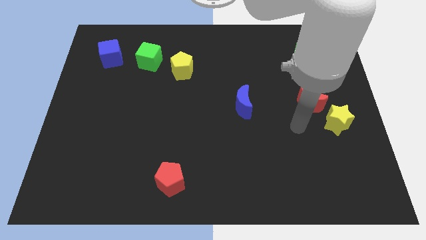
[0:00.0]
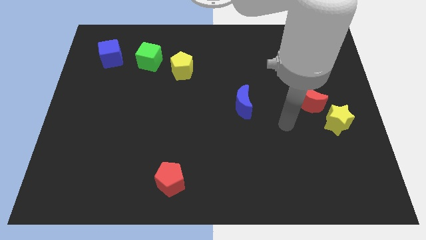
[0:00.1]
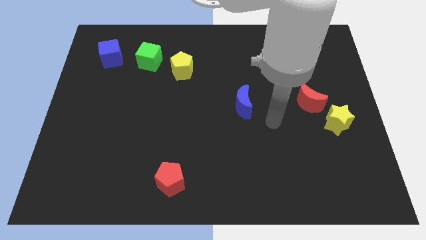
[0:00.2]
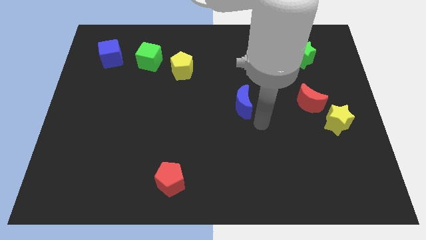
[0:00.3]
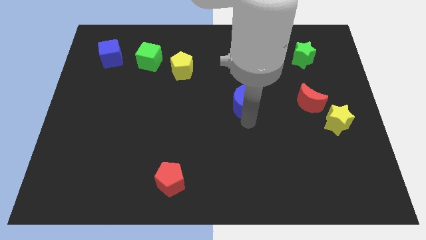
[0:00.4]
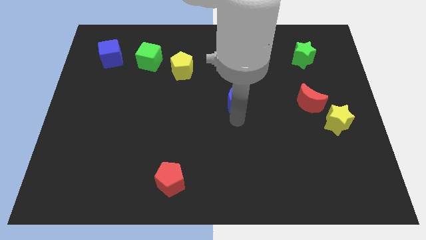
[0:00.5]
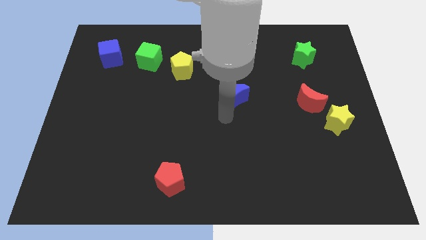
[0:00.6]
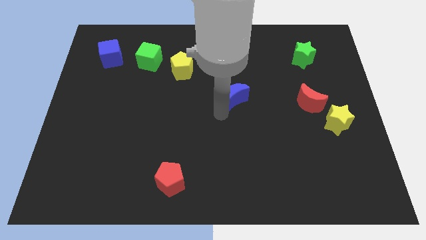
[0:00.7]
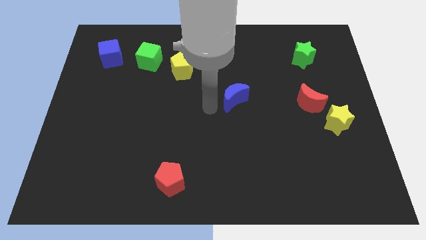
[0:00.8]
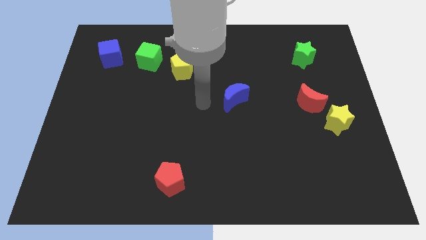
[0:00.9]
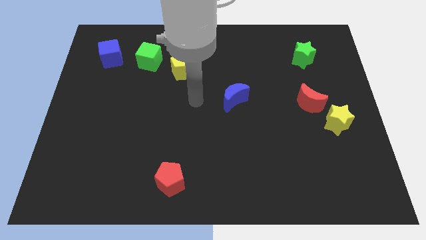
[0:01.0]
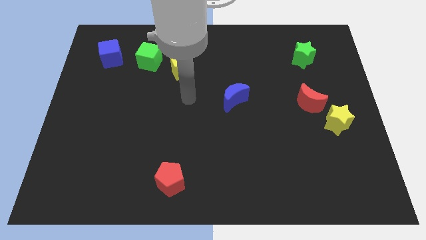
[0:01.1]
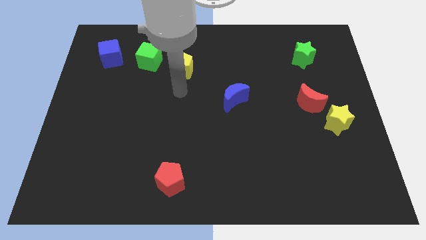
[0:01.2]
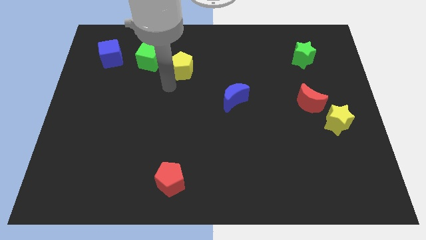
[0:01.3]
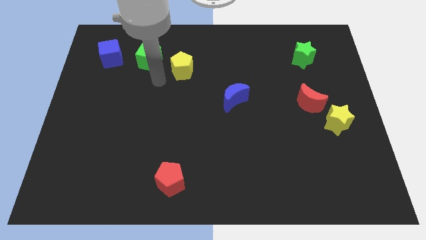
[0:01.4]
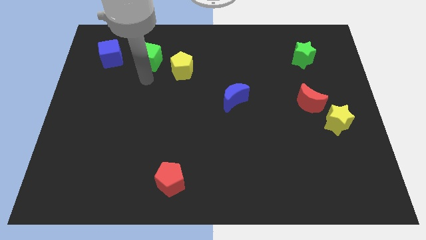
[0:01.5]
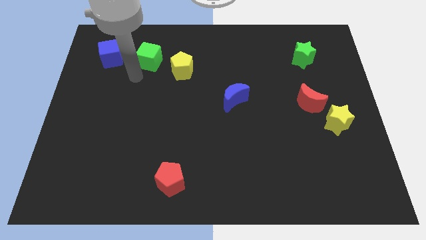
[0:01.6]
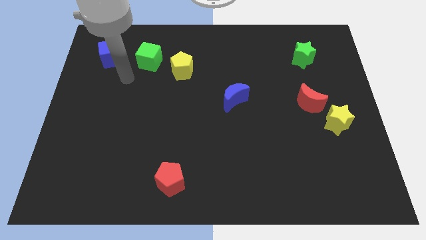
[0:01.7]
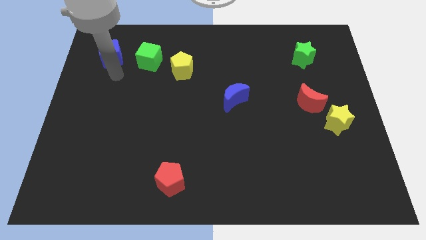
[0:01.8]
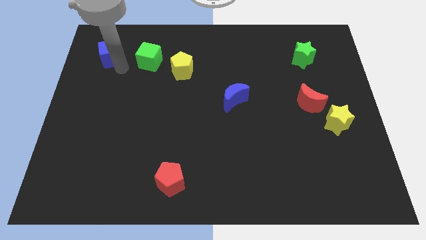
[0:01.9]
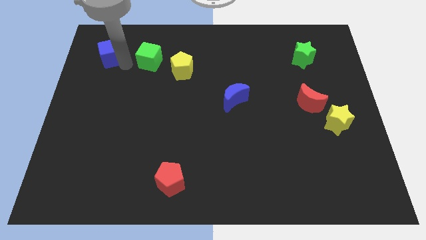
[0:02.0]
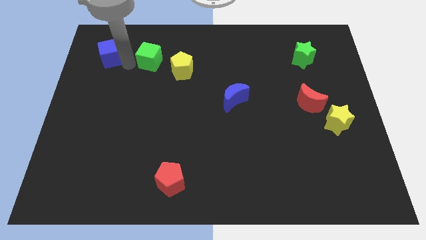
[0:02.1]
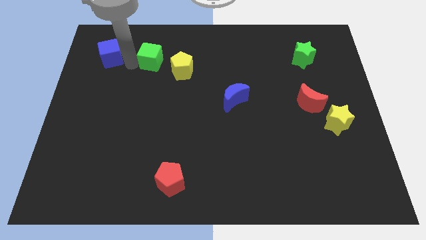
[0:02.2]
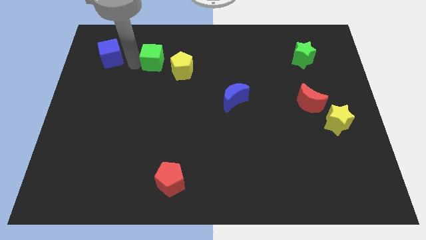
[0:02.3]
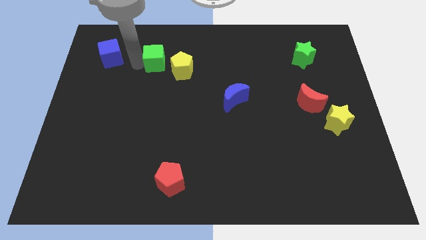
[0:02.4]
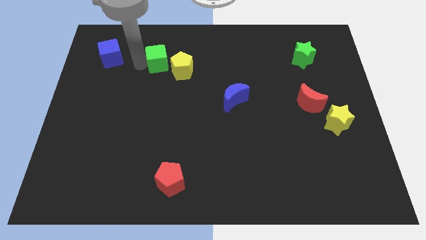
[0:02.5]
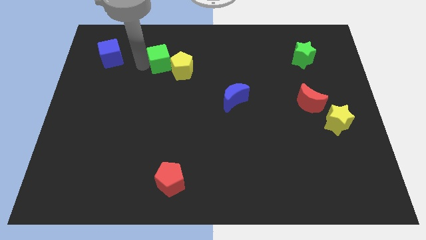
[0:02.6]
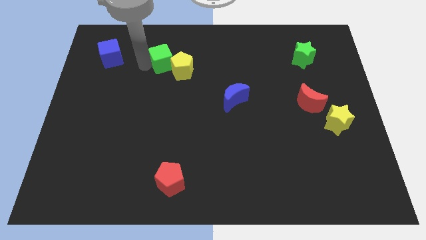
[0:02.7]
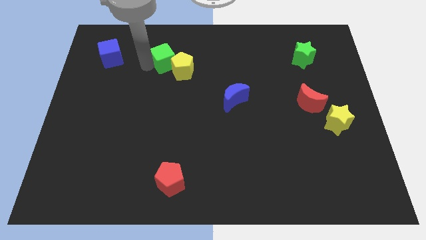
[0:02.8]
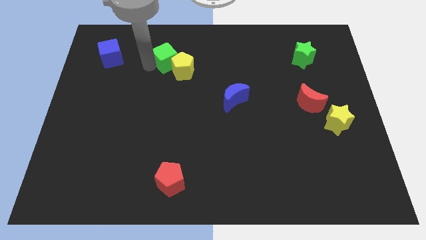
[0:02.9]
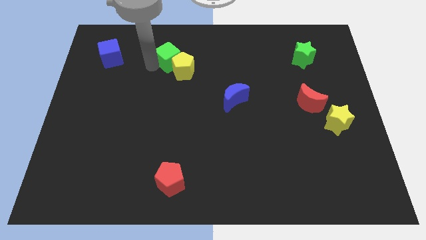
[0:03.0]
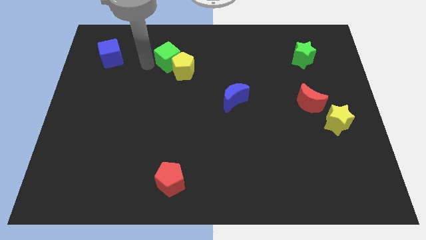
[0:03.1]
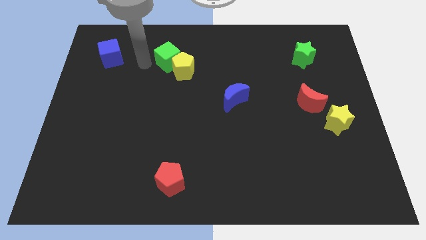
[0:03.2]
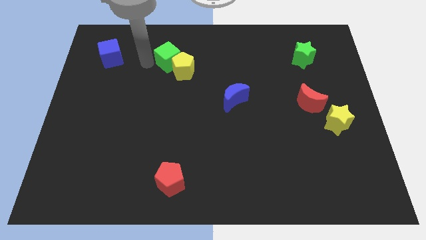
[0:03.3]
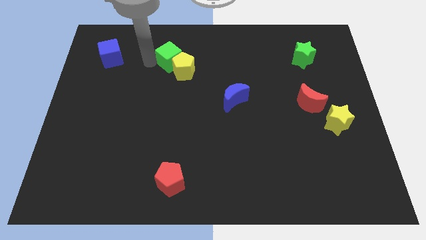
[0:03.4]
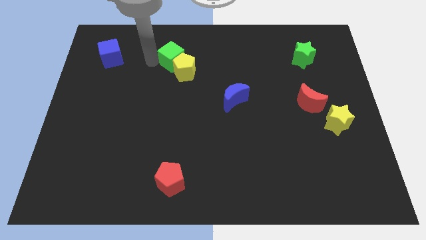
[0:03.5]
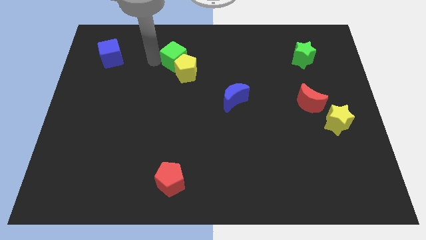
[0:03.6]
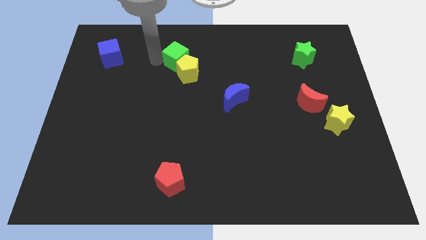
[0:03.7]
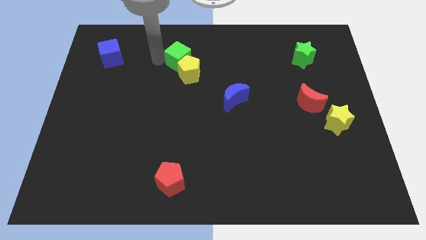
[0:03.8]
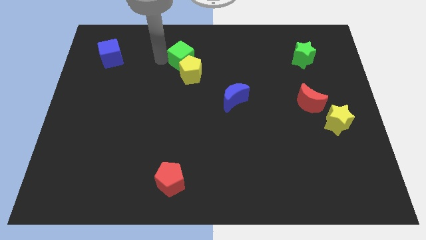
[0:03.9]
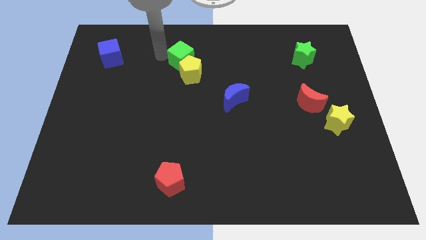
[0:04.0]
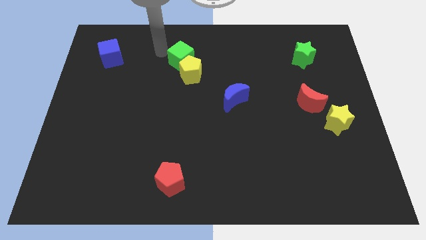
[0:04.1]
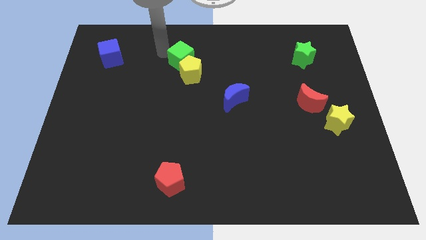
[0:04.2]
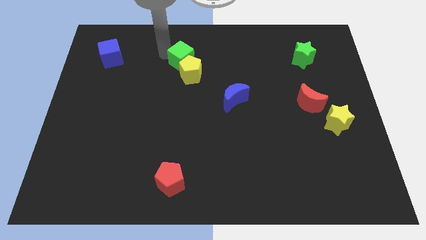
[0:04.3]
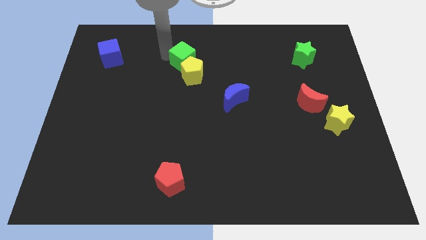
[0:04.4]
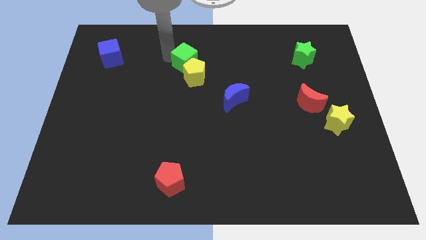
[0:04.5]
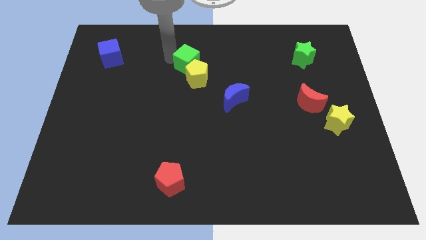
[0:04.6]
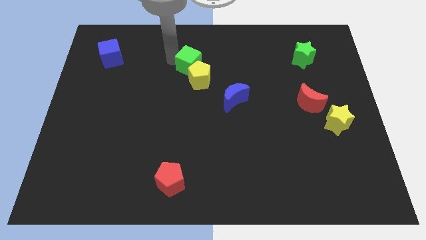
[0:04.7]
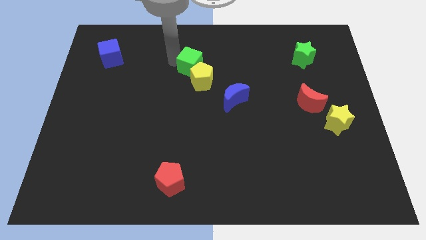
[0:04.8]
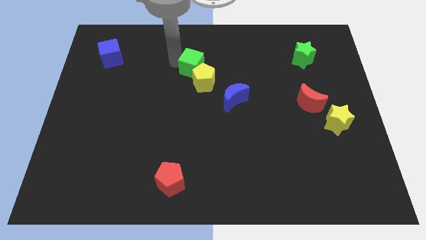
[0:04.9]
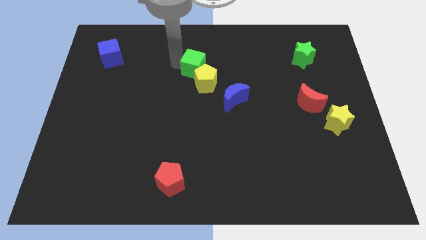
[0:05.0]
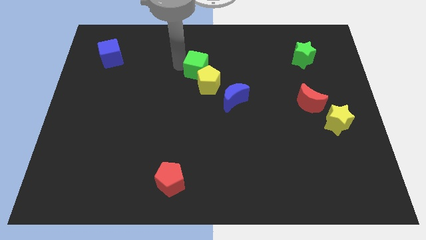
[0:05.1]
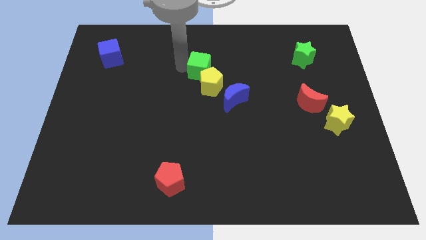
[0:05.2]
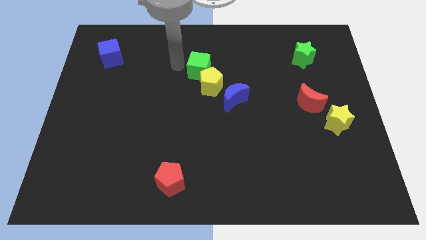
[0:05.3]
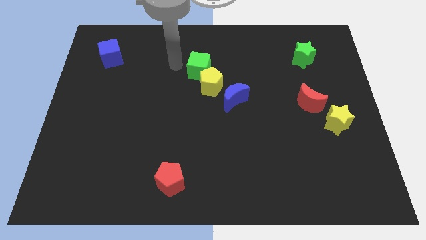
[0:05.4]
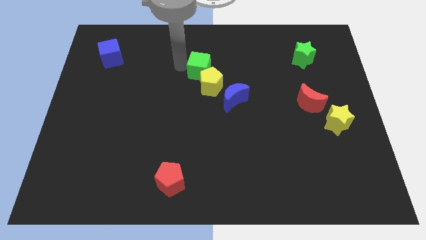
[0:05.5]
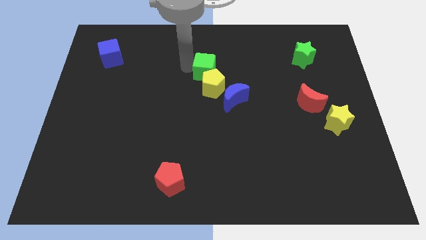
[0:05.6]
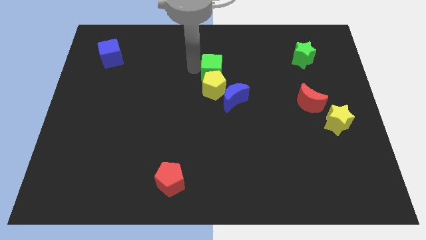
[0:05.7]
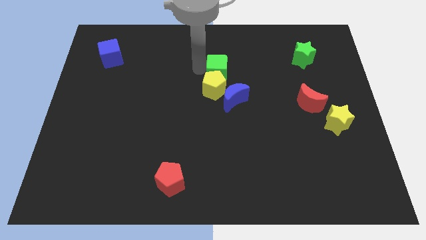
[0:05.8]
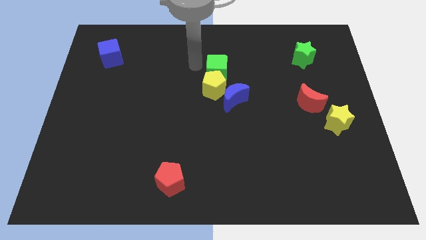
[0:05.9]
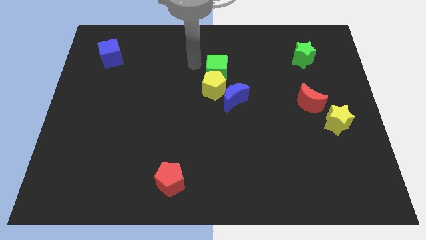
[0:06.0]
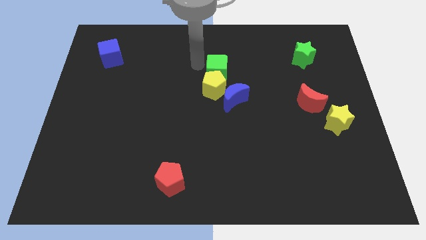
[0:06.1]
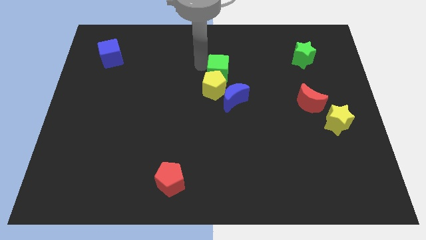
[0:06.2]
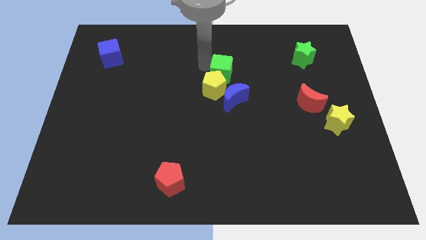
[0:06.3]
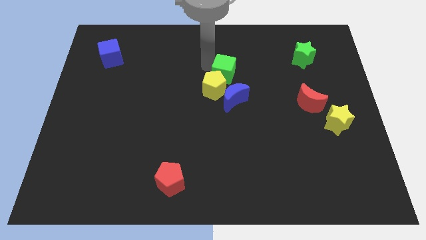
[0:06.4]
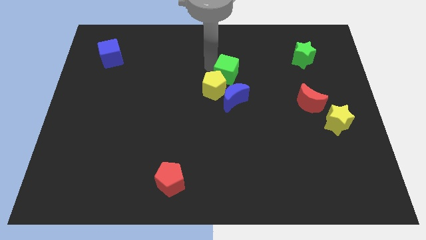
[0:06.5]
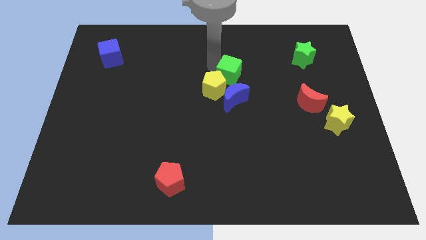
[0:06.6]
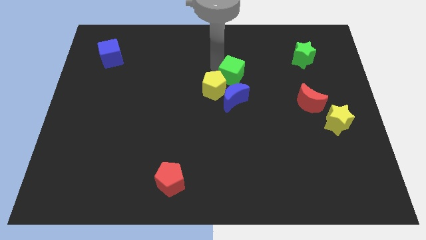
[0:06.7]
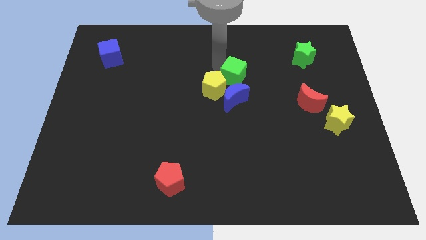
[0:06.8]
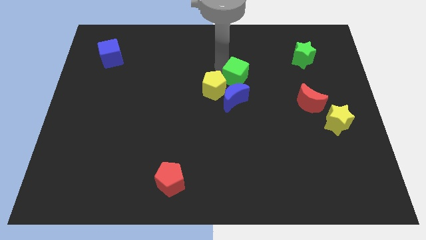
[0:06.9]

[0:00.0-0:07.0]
slide the green cube to the top right side of the blue moon
